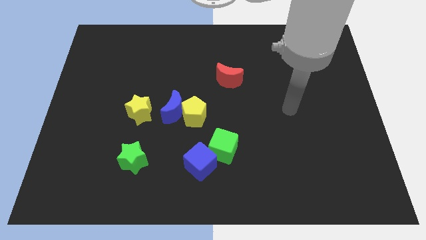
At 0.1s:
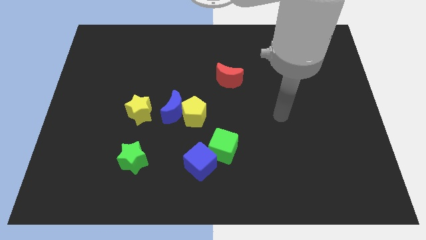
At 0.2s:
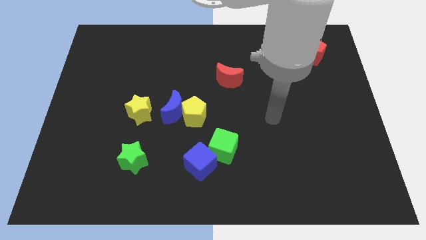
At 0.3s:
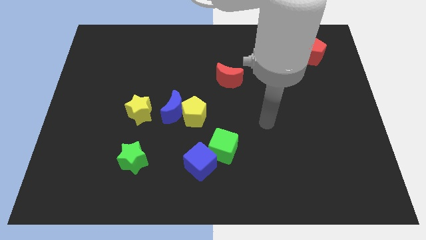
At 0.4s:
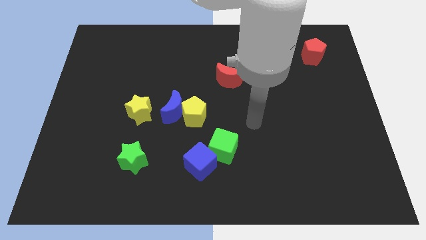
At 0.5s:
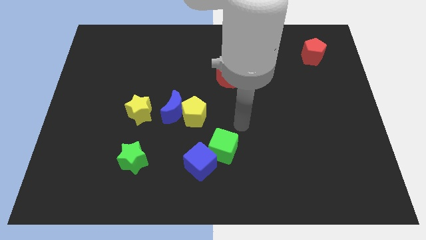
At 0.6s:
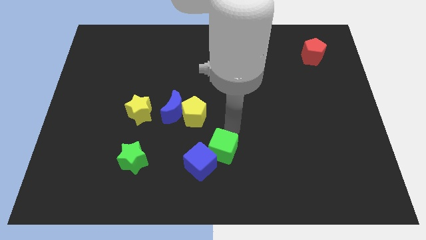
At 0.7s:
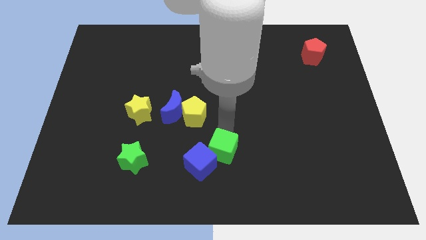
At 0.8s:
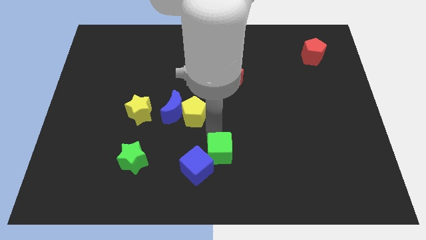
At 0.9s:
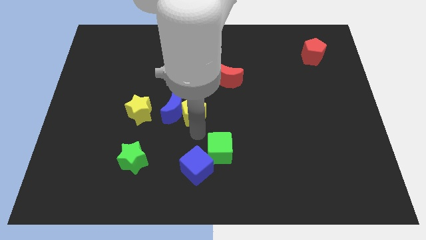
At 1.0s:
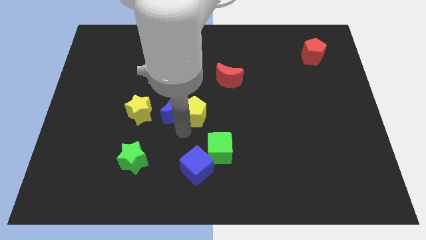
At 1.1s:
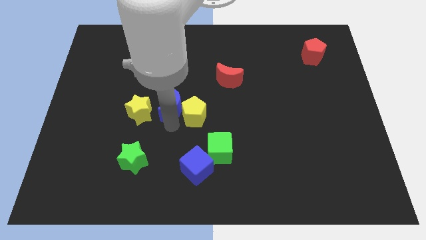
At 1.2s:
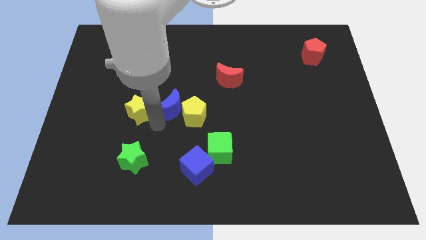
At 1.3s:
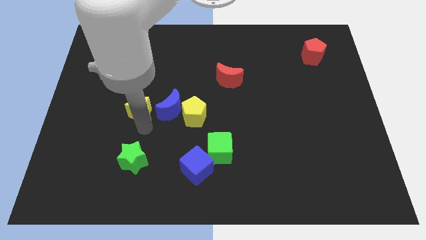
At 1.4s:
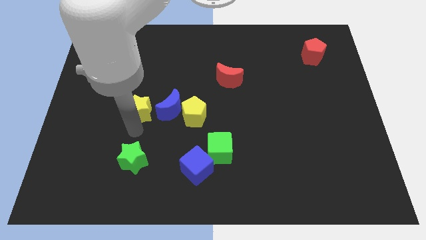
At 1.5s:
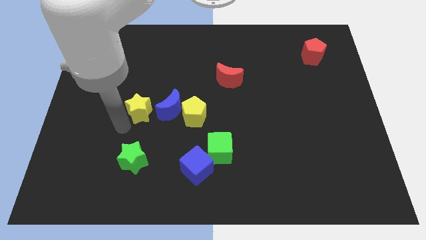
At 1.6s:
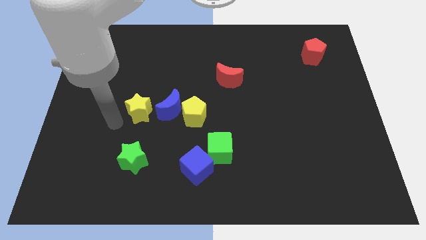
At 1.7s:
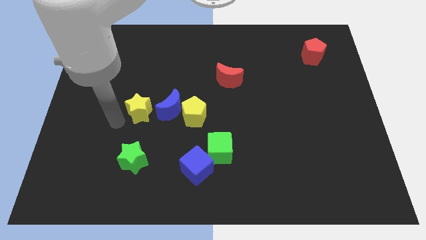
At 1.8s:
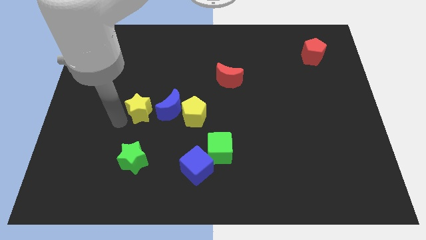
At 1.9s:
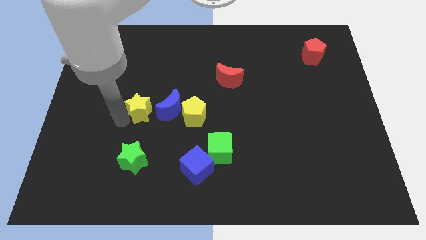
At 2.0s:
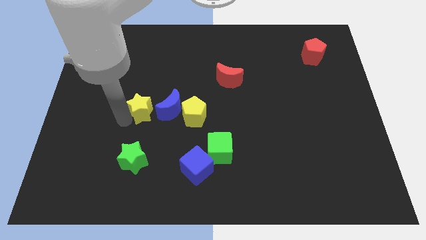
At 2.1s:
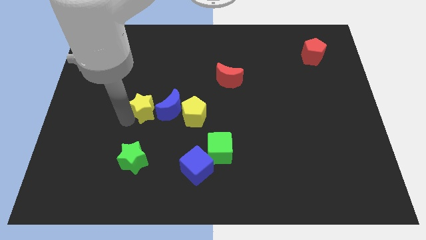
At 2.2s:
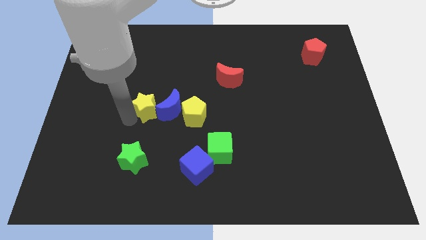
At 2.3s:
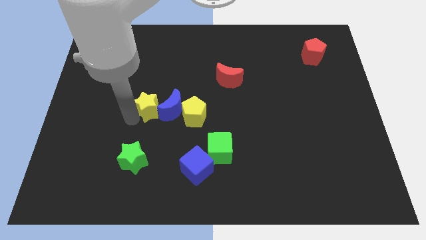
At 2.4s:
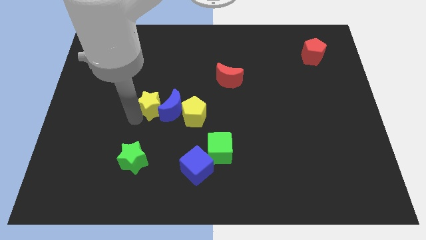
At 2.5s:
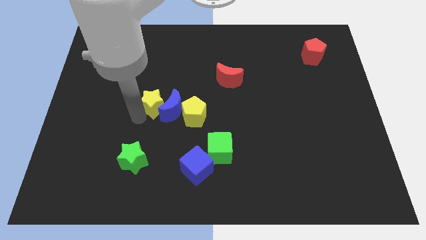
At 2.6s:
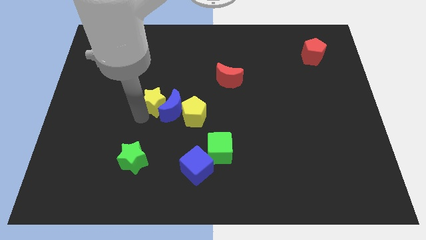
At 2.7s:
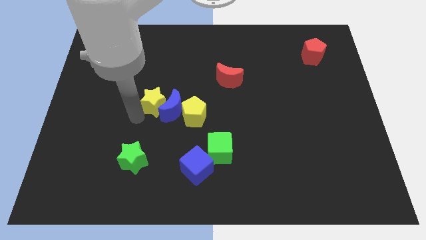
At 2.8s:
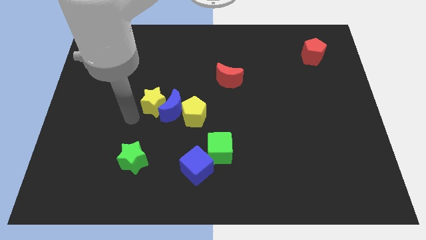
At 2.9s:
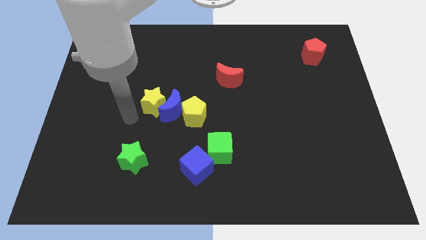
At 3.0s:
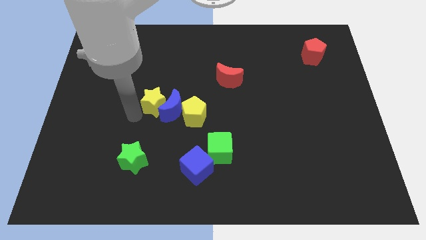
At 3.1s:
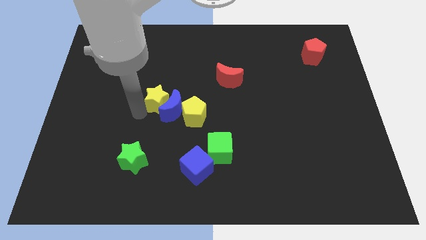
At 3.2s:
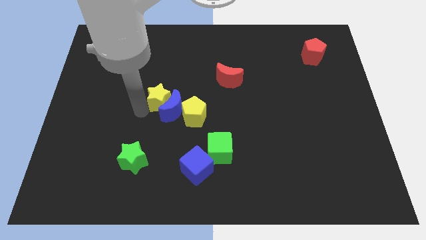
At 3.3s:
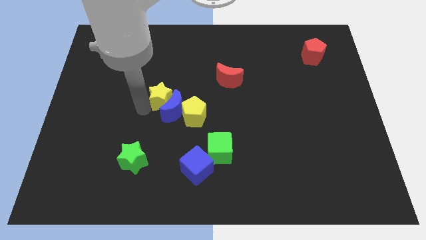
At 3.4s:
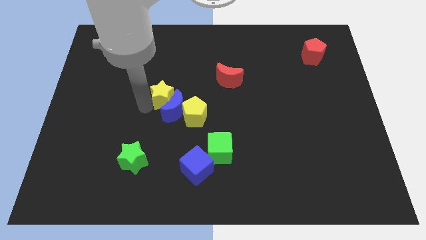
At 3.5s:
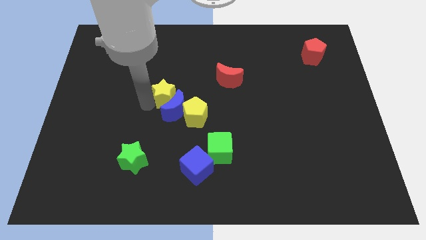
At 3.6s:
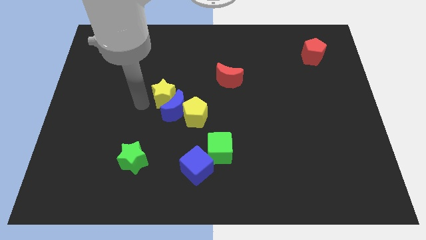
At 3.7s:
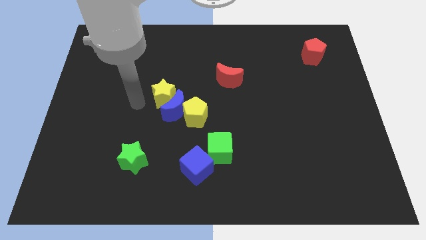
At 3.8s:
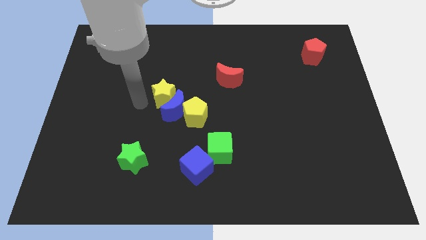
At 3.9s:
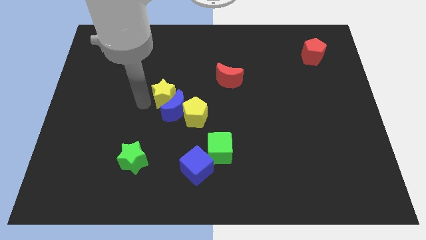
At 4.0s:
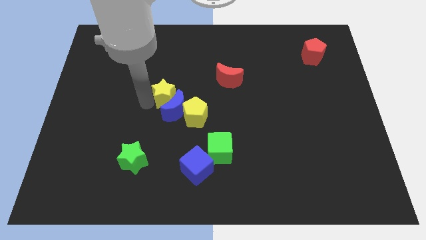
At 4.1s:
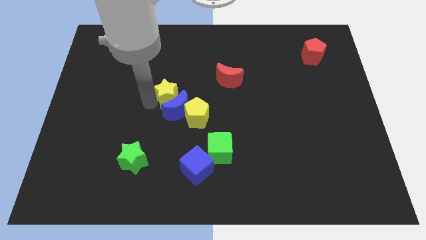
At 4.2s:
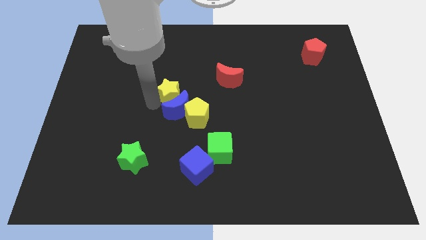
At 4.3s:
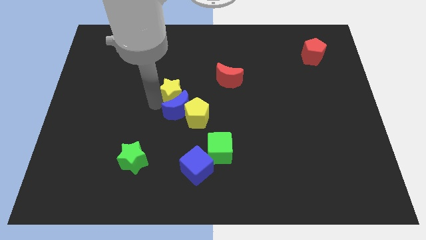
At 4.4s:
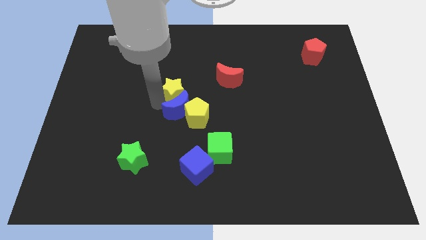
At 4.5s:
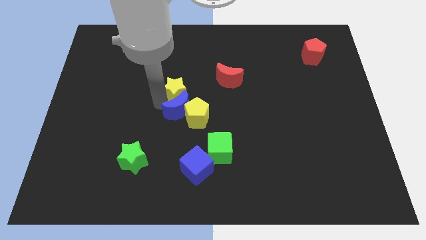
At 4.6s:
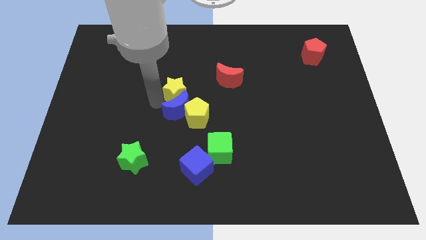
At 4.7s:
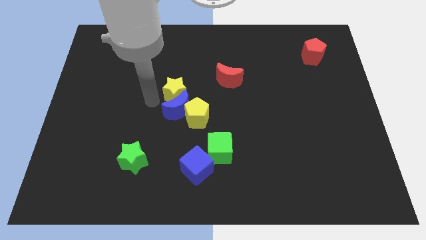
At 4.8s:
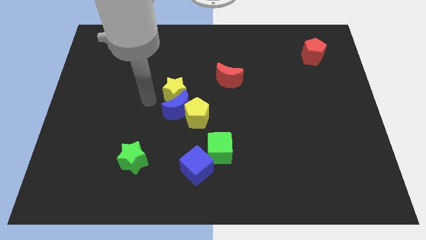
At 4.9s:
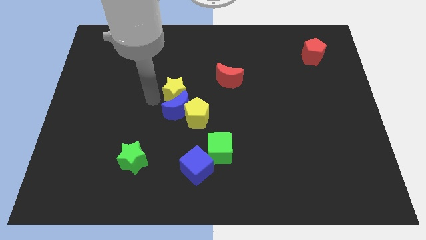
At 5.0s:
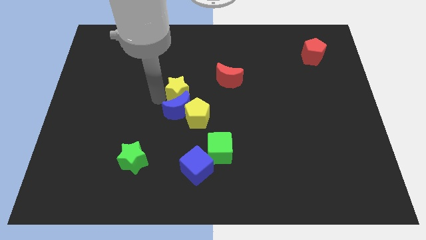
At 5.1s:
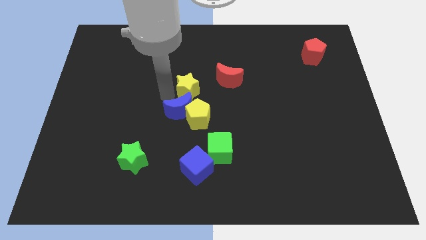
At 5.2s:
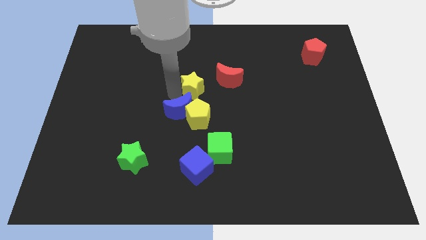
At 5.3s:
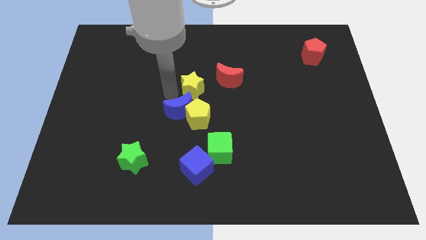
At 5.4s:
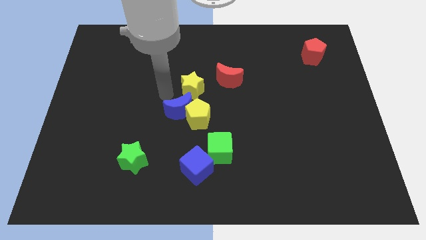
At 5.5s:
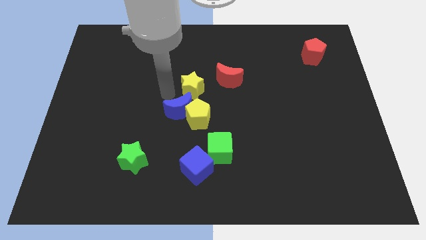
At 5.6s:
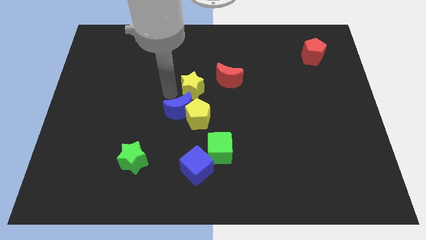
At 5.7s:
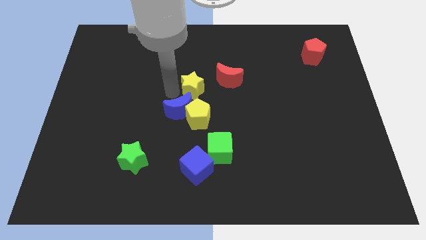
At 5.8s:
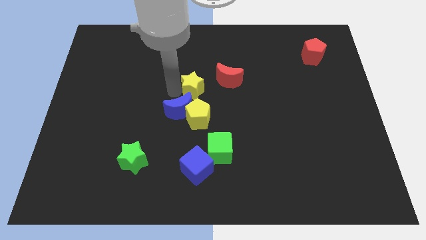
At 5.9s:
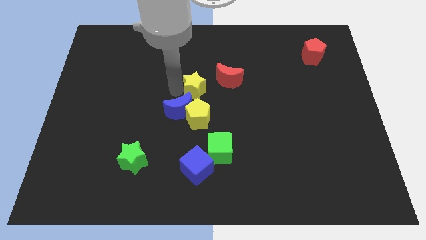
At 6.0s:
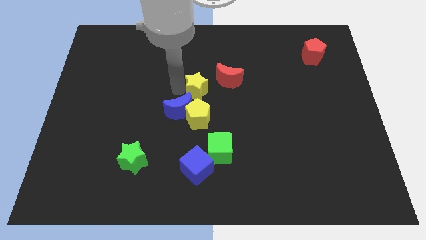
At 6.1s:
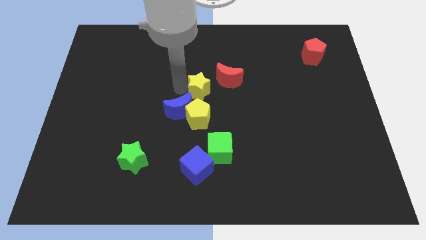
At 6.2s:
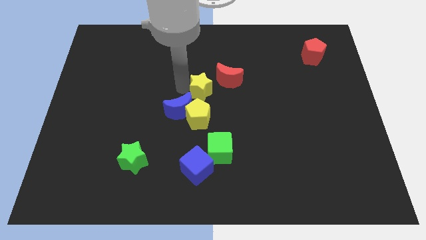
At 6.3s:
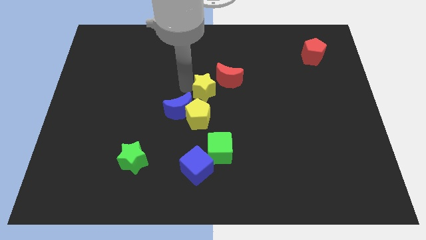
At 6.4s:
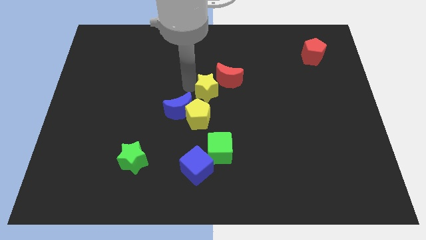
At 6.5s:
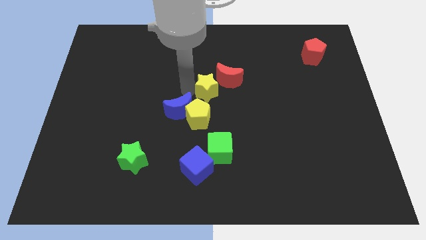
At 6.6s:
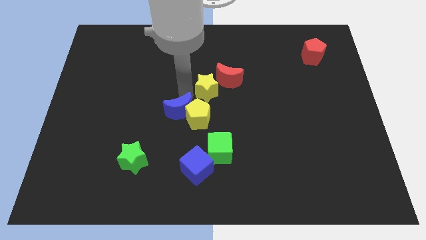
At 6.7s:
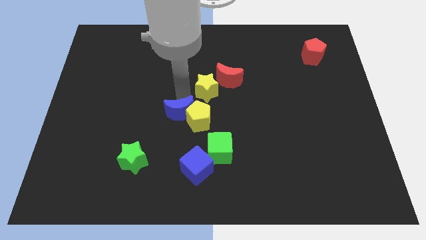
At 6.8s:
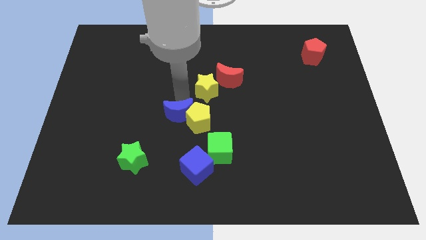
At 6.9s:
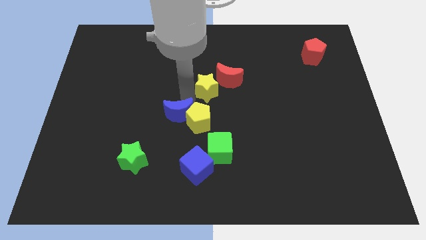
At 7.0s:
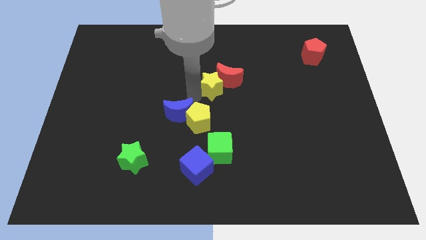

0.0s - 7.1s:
put the yellow star towards the red moon
